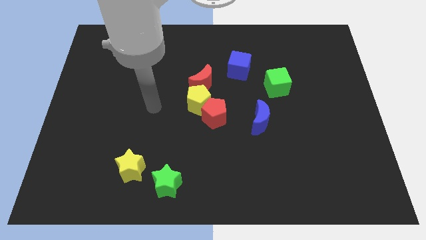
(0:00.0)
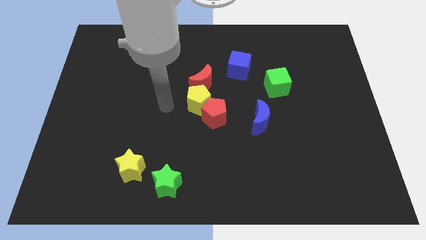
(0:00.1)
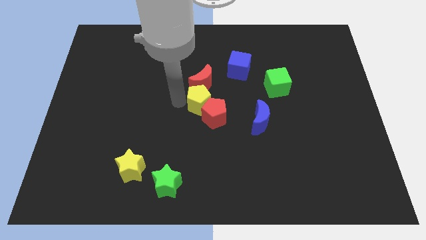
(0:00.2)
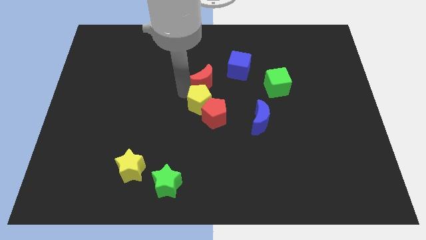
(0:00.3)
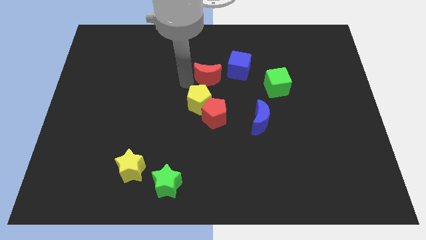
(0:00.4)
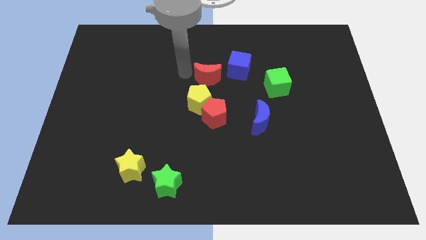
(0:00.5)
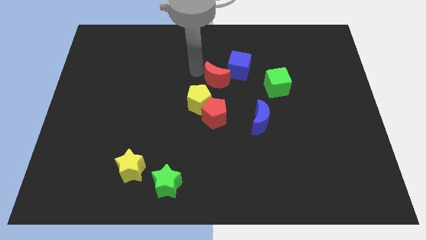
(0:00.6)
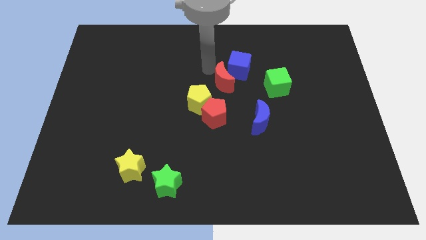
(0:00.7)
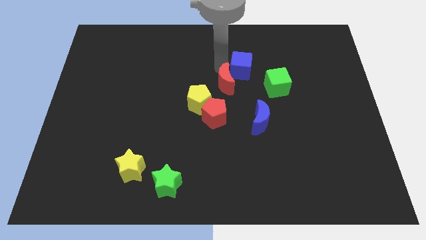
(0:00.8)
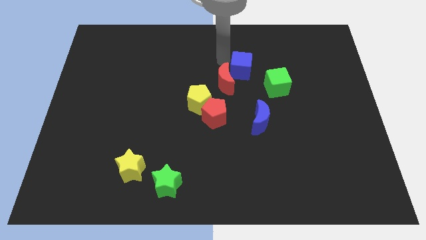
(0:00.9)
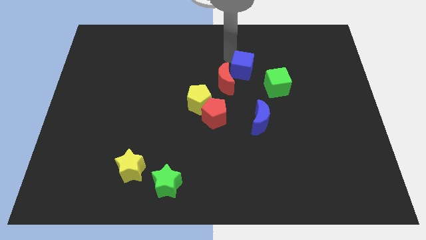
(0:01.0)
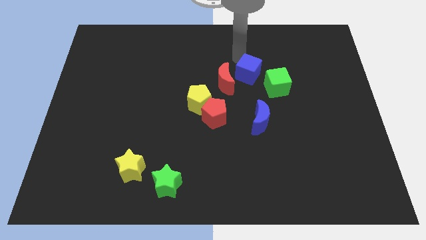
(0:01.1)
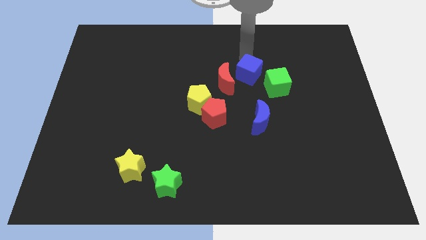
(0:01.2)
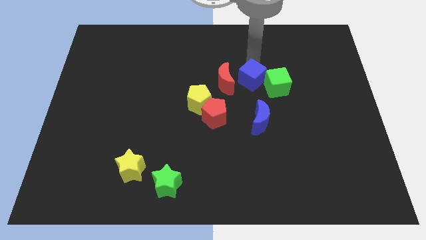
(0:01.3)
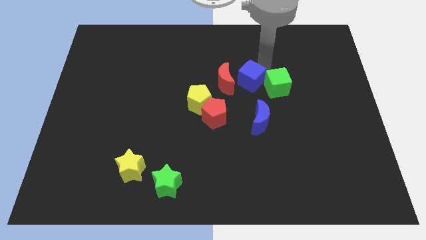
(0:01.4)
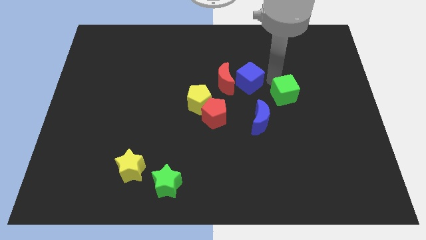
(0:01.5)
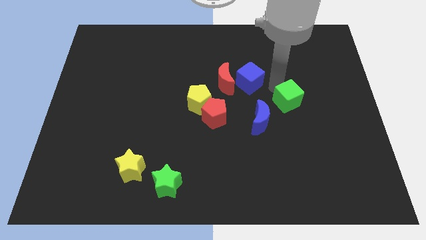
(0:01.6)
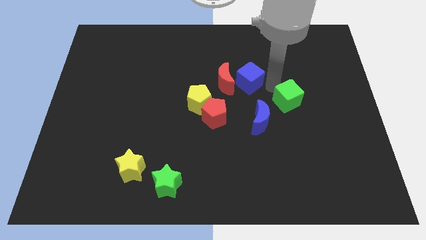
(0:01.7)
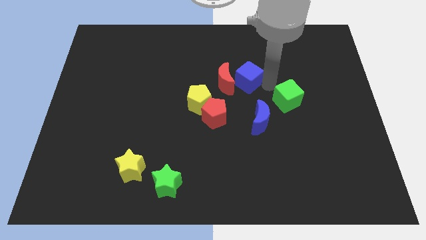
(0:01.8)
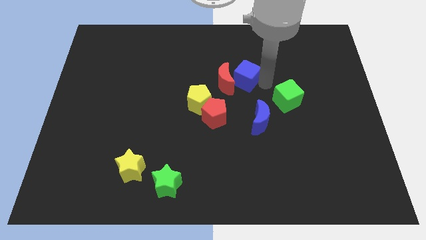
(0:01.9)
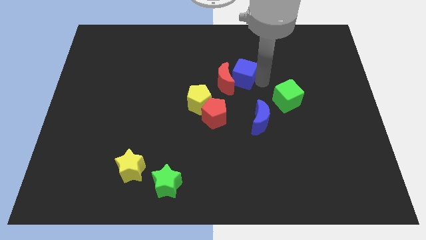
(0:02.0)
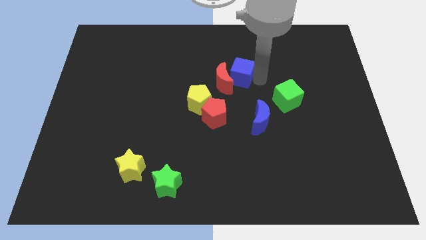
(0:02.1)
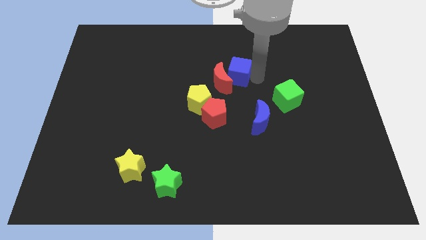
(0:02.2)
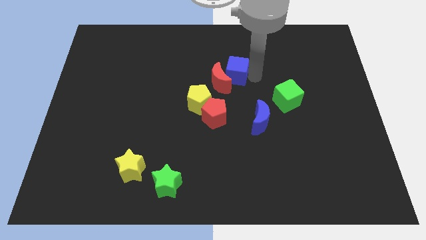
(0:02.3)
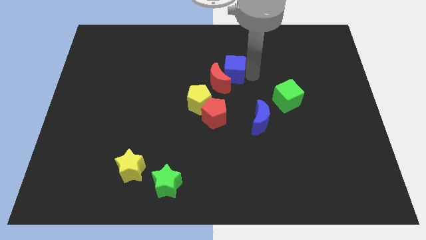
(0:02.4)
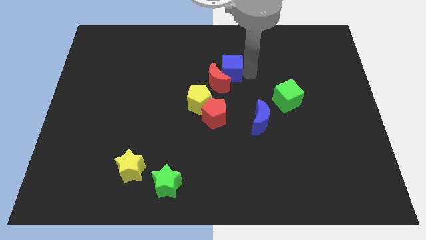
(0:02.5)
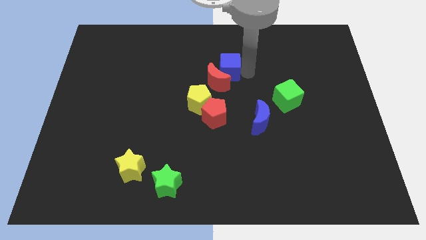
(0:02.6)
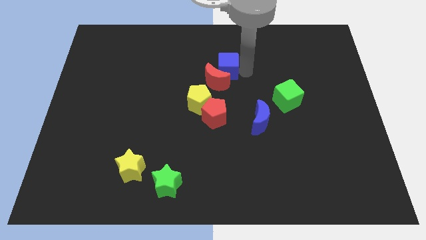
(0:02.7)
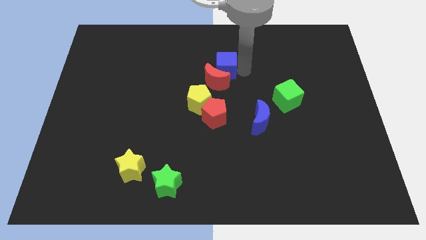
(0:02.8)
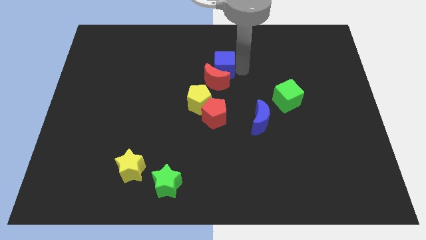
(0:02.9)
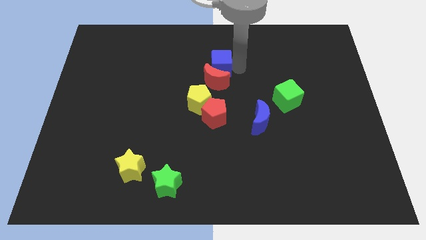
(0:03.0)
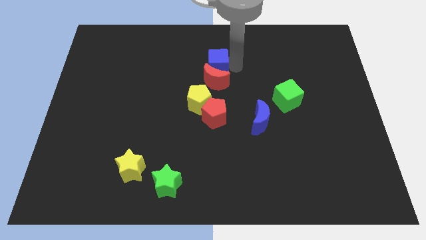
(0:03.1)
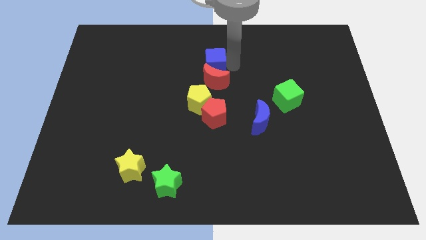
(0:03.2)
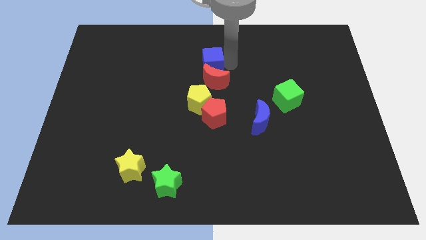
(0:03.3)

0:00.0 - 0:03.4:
slide the blue cube to the left a little

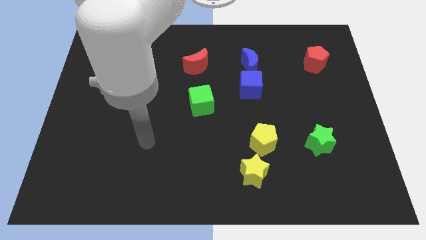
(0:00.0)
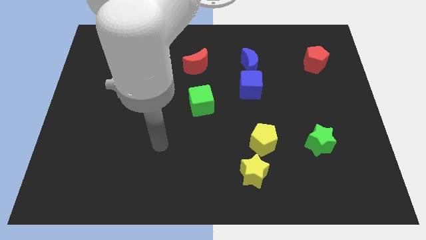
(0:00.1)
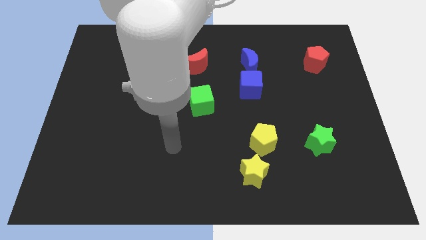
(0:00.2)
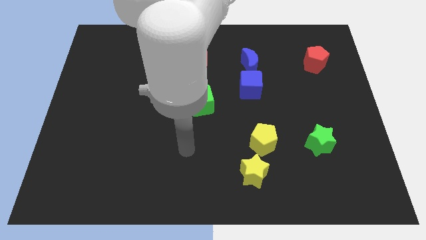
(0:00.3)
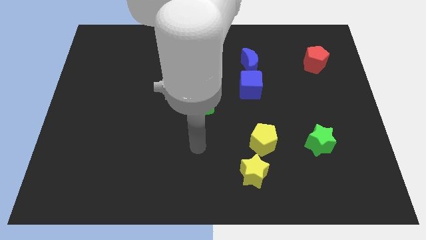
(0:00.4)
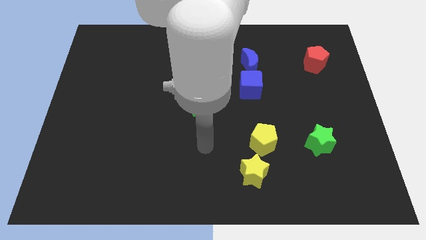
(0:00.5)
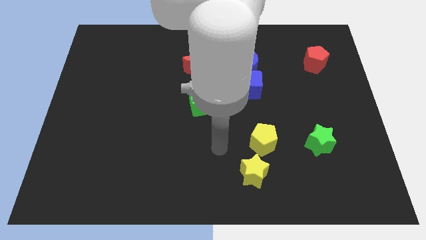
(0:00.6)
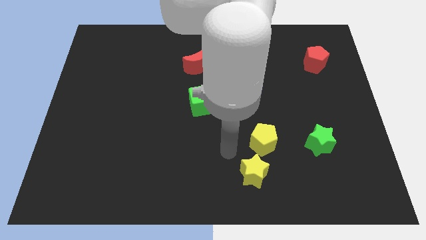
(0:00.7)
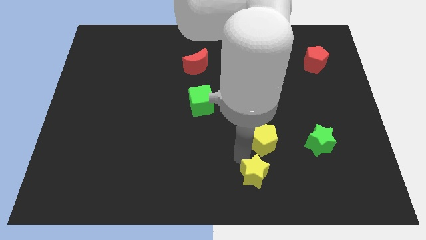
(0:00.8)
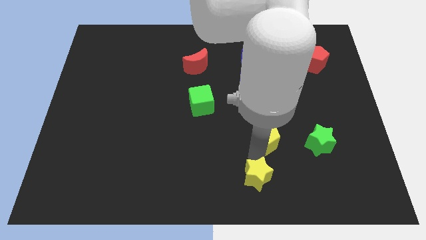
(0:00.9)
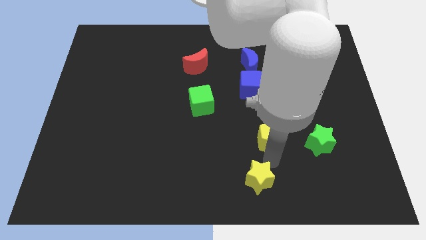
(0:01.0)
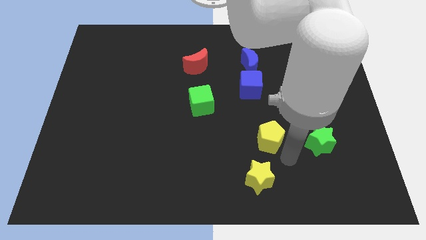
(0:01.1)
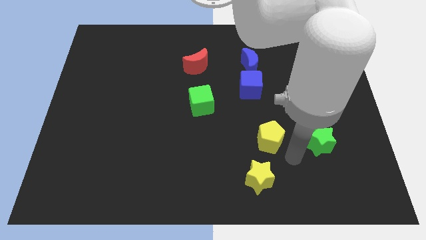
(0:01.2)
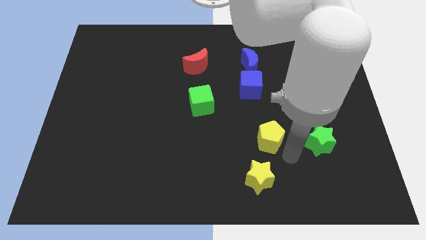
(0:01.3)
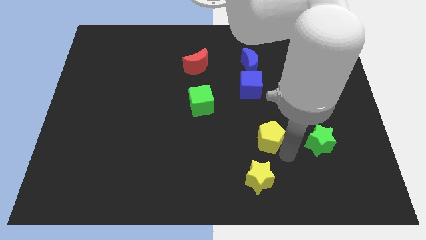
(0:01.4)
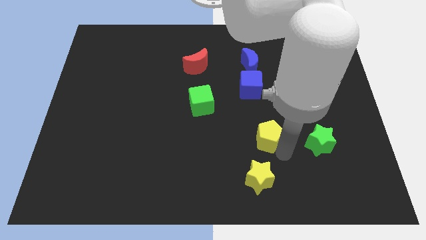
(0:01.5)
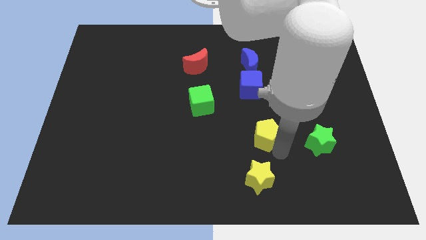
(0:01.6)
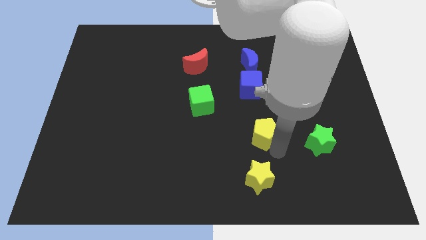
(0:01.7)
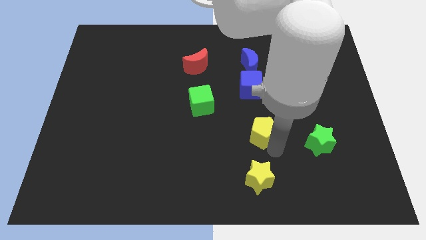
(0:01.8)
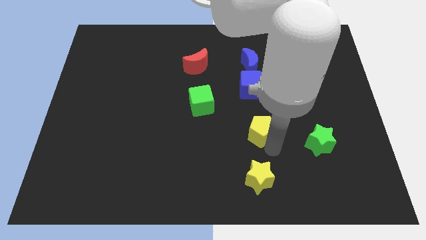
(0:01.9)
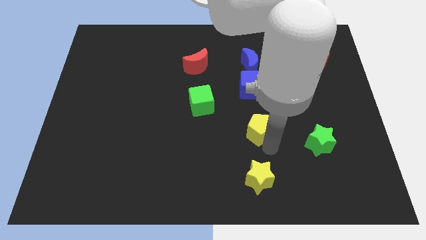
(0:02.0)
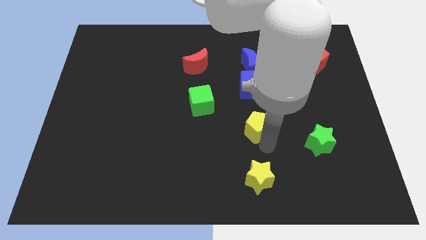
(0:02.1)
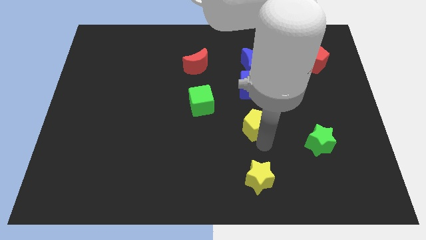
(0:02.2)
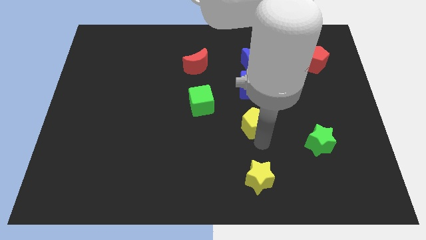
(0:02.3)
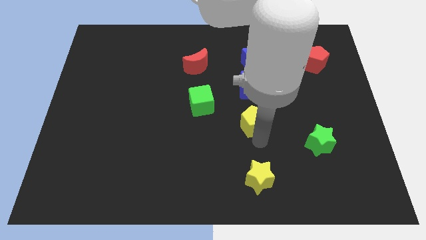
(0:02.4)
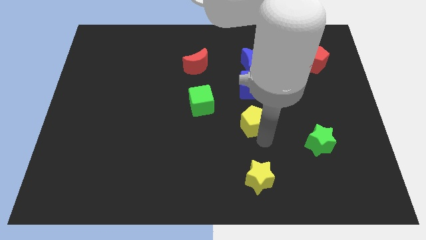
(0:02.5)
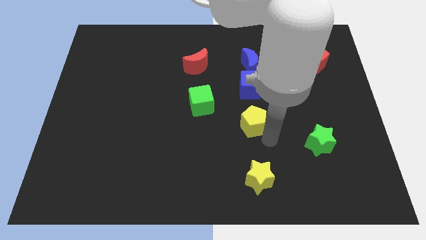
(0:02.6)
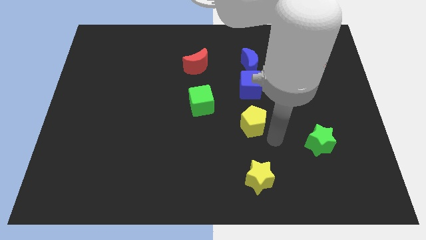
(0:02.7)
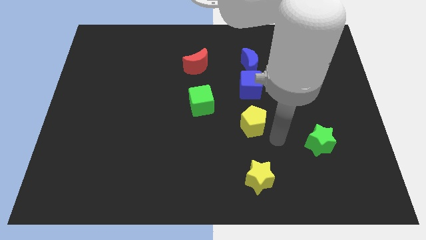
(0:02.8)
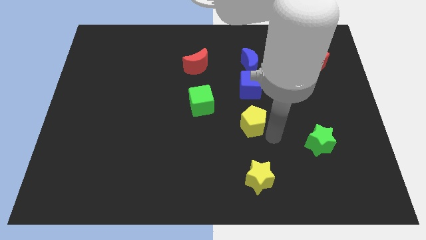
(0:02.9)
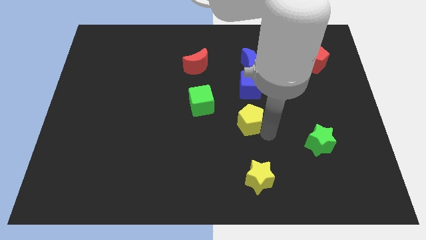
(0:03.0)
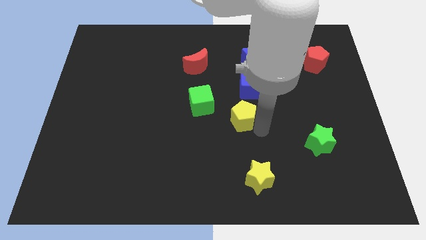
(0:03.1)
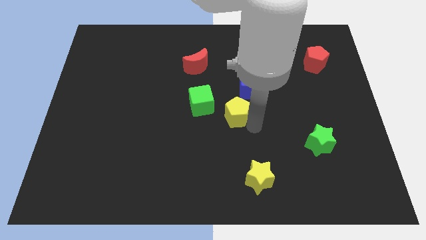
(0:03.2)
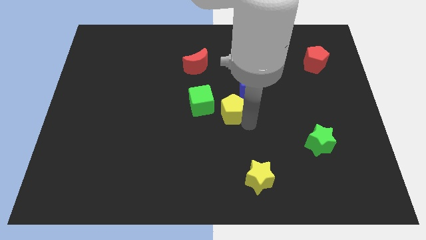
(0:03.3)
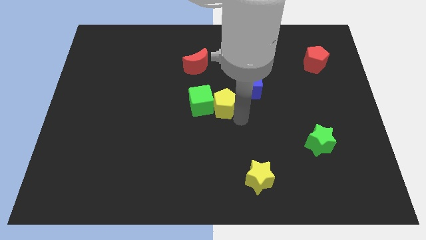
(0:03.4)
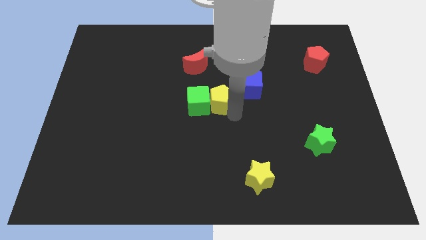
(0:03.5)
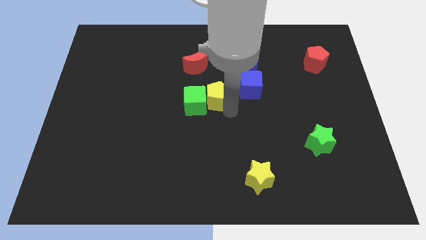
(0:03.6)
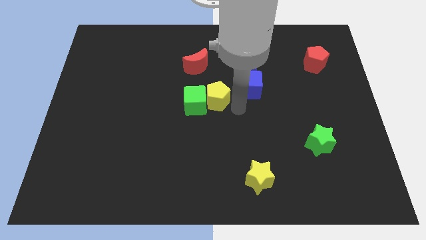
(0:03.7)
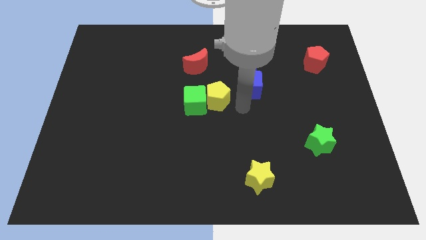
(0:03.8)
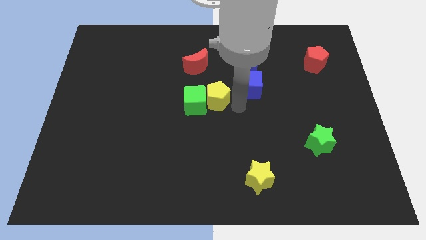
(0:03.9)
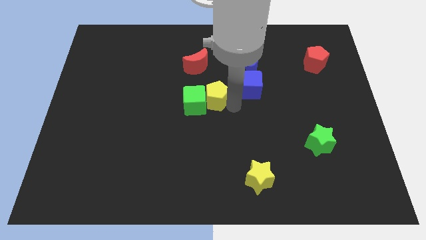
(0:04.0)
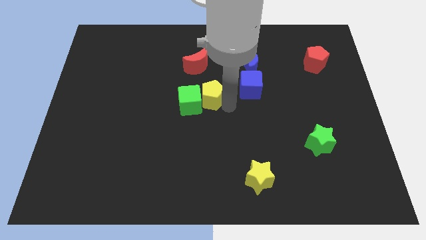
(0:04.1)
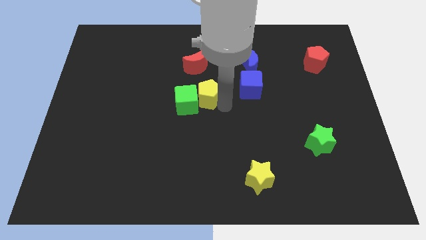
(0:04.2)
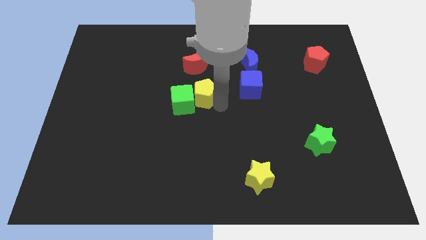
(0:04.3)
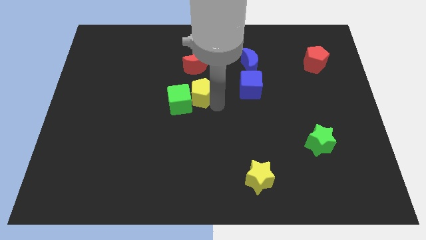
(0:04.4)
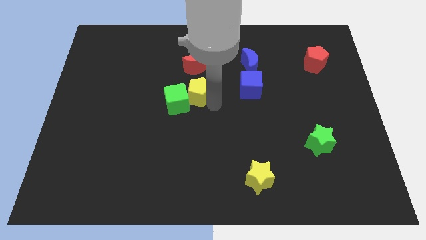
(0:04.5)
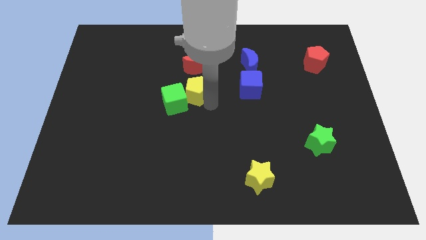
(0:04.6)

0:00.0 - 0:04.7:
push the yellow pentagon upwards and then left
